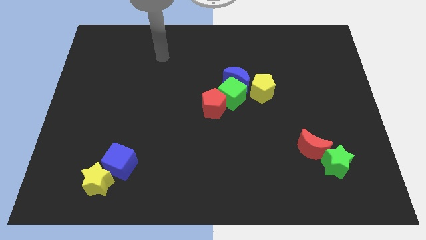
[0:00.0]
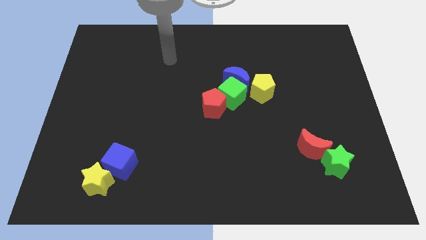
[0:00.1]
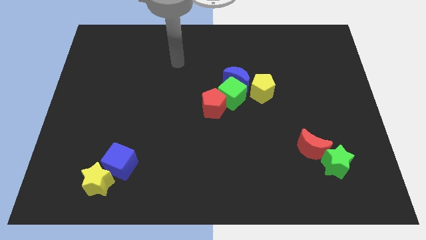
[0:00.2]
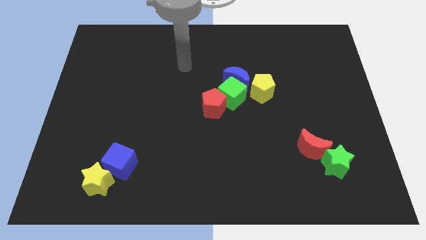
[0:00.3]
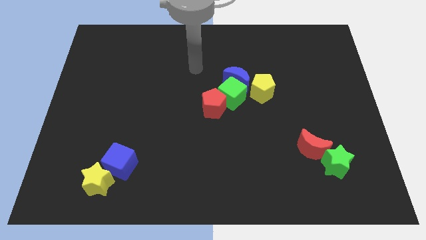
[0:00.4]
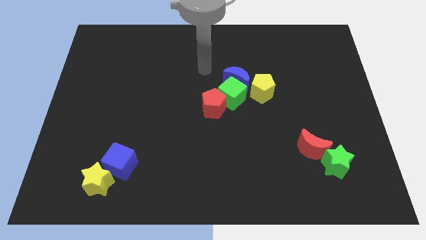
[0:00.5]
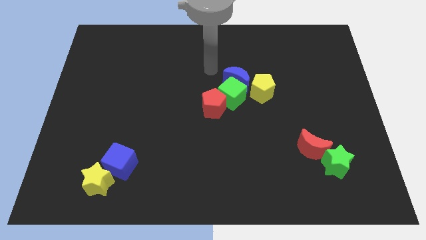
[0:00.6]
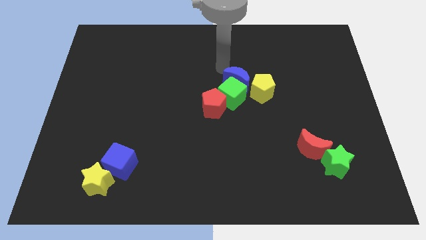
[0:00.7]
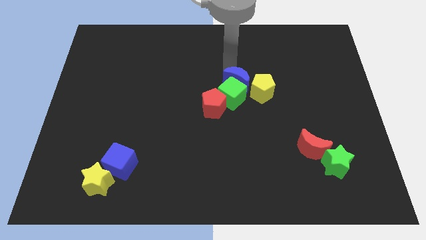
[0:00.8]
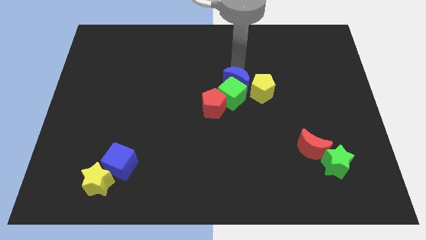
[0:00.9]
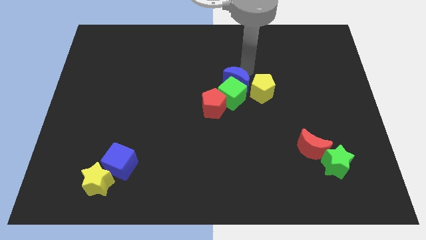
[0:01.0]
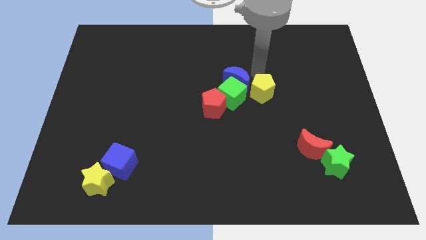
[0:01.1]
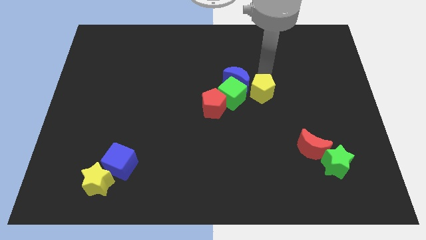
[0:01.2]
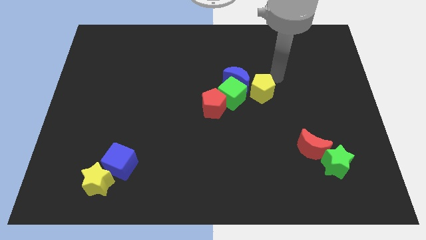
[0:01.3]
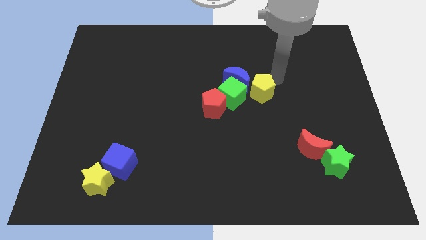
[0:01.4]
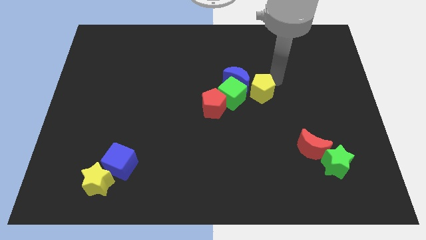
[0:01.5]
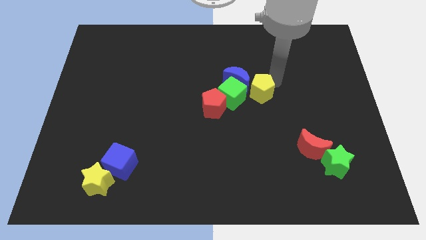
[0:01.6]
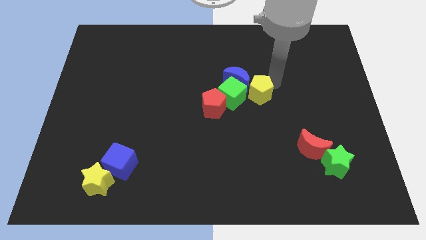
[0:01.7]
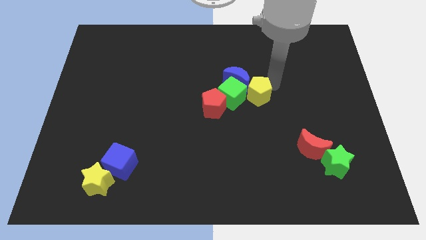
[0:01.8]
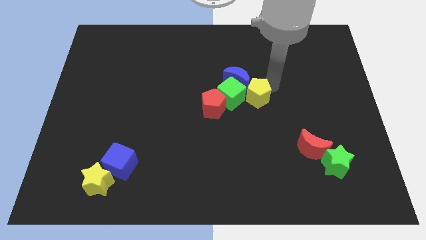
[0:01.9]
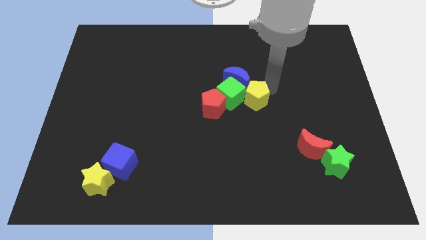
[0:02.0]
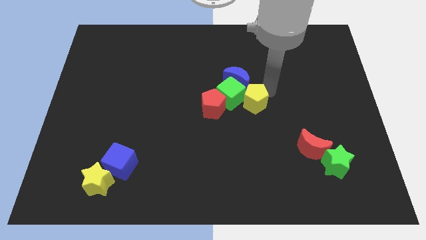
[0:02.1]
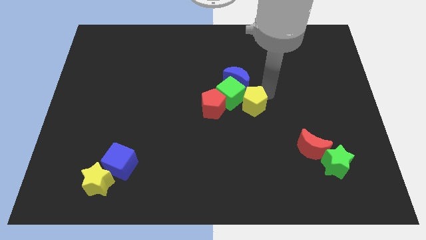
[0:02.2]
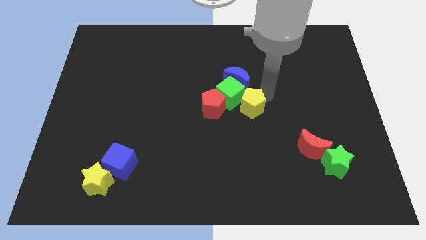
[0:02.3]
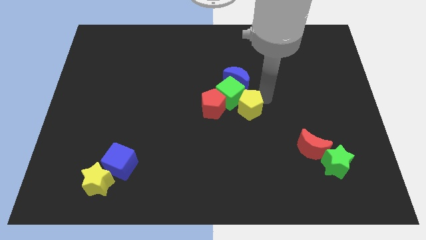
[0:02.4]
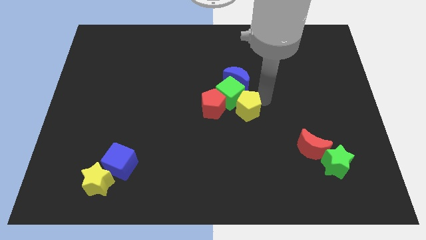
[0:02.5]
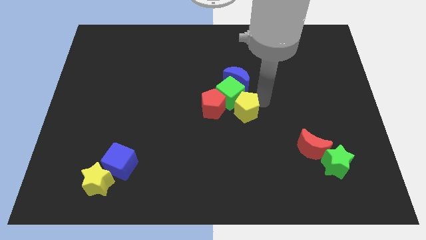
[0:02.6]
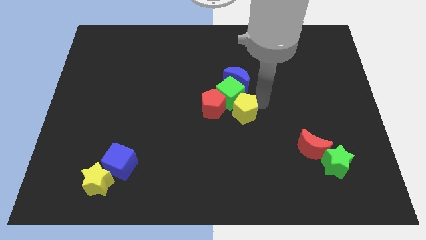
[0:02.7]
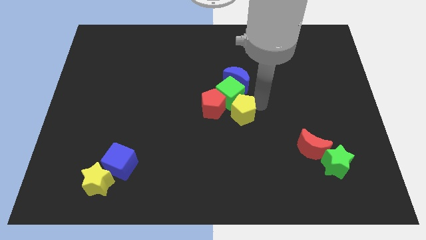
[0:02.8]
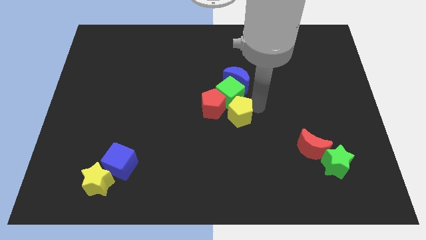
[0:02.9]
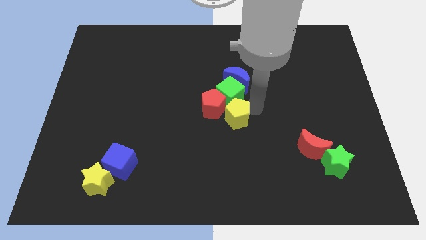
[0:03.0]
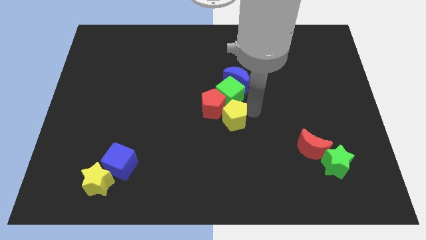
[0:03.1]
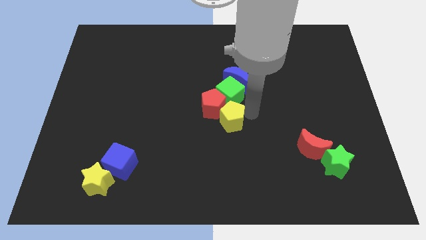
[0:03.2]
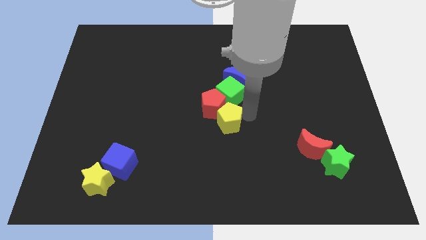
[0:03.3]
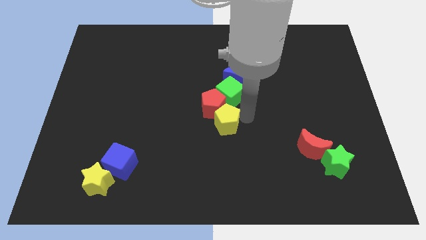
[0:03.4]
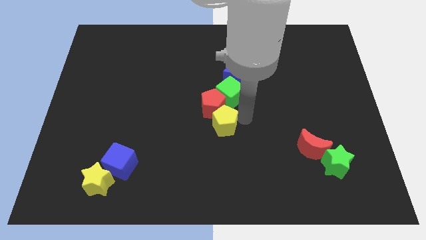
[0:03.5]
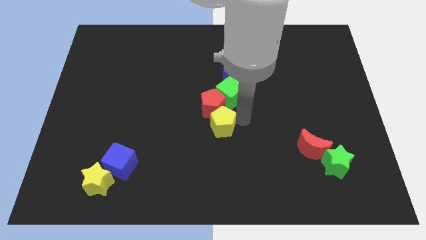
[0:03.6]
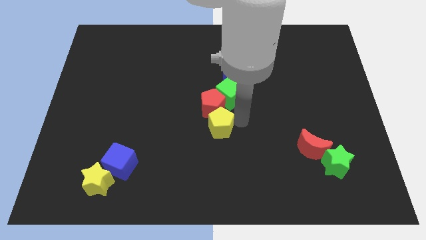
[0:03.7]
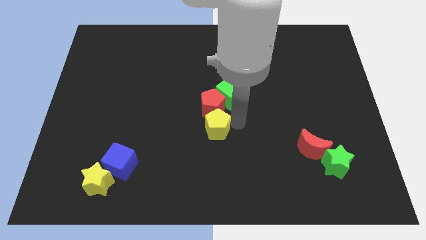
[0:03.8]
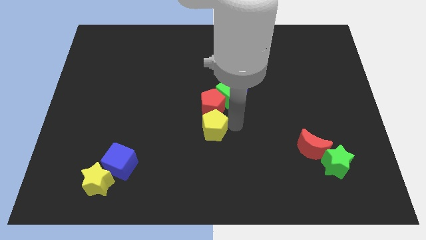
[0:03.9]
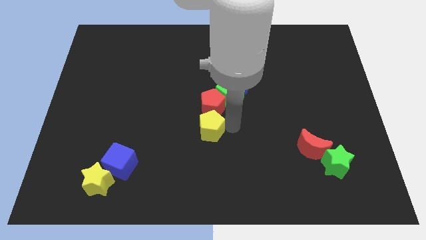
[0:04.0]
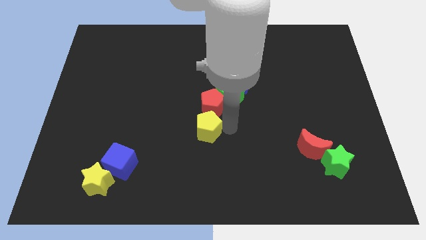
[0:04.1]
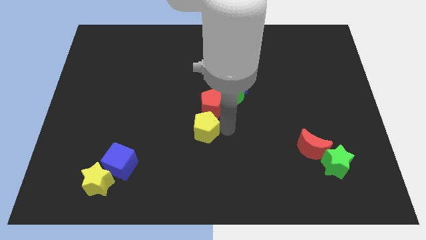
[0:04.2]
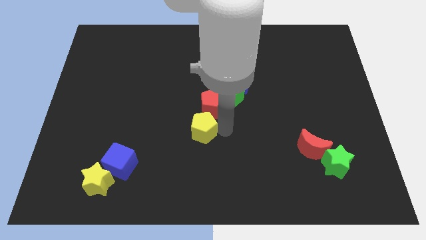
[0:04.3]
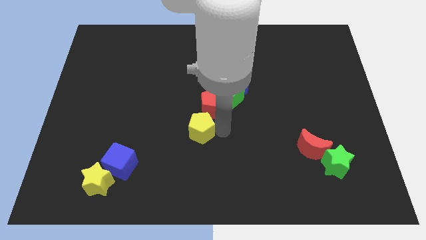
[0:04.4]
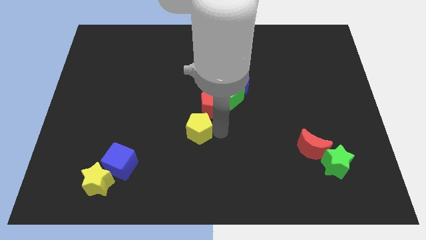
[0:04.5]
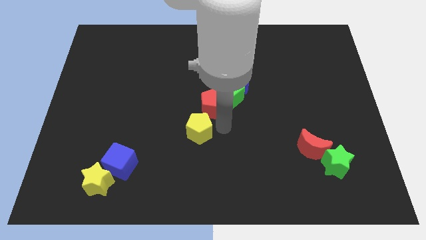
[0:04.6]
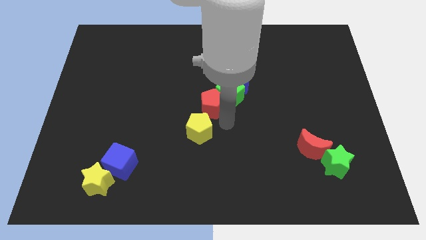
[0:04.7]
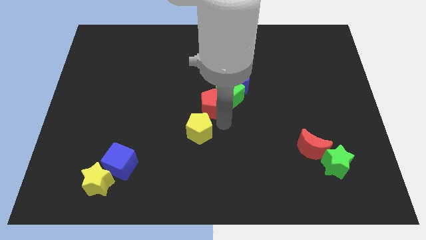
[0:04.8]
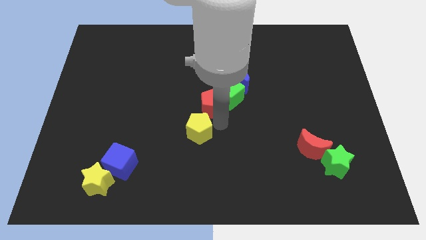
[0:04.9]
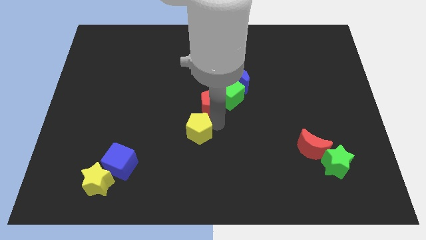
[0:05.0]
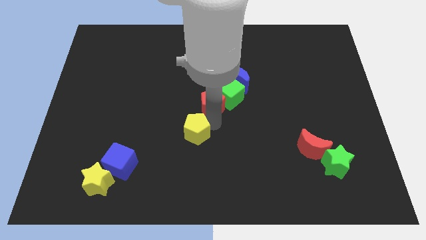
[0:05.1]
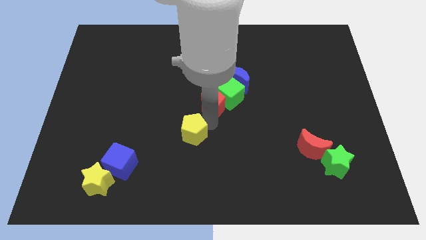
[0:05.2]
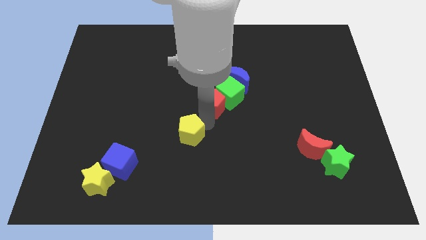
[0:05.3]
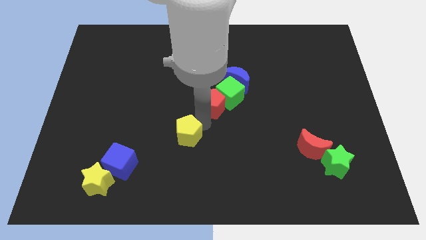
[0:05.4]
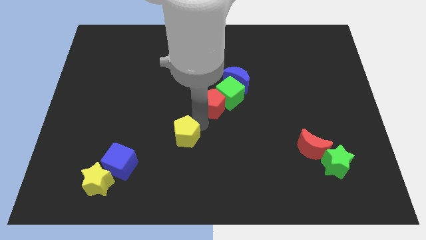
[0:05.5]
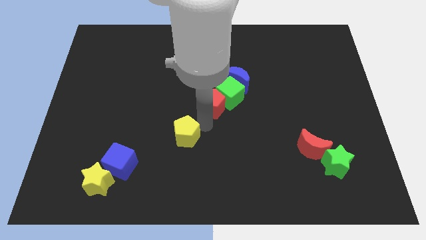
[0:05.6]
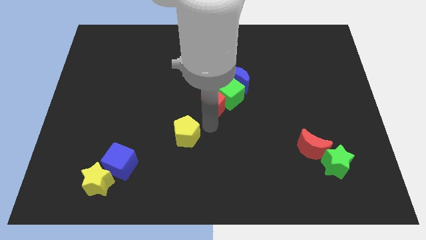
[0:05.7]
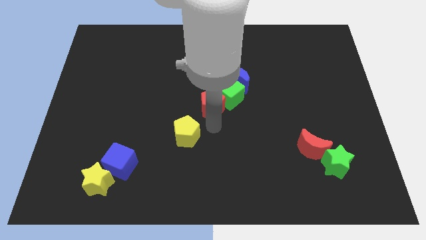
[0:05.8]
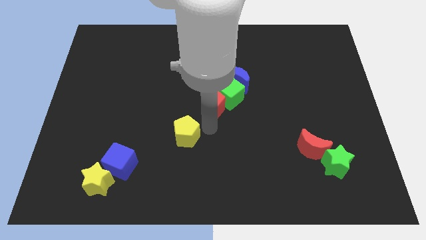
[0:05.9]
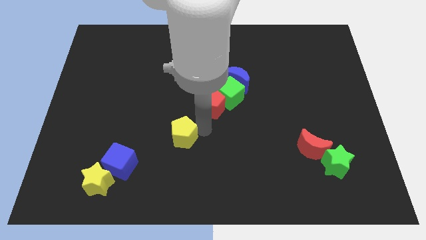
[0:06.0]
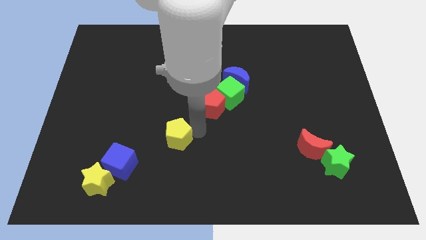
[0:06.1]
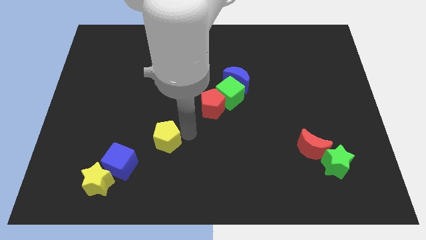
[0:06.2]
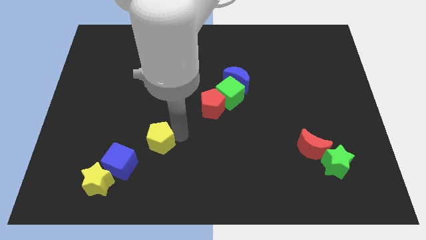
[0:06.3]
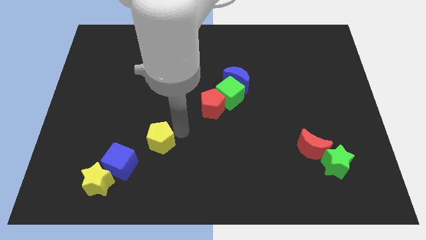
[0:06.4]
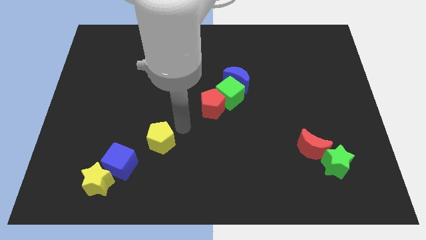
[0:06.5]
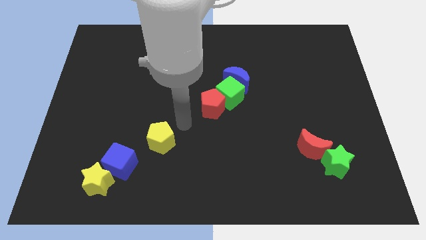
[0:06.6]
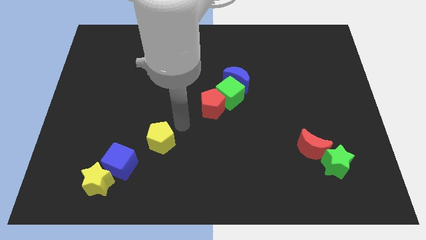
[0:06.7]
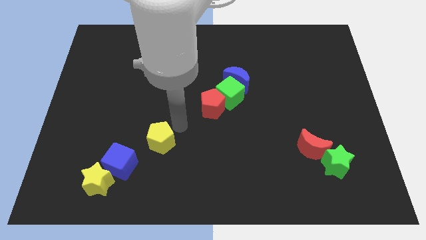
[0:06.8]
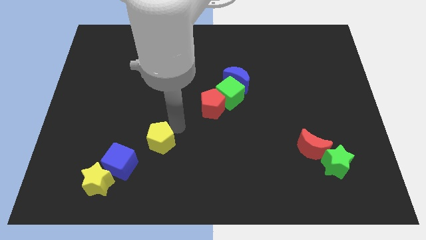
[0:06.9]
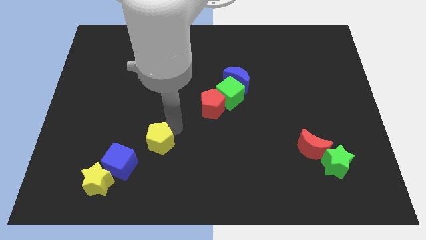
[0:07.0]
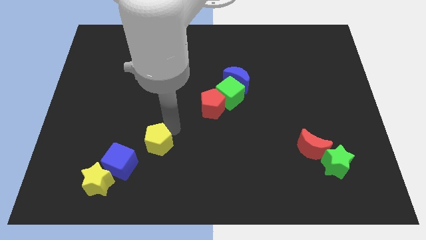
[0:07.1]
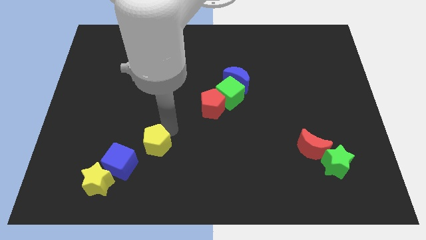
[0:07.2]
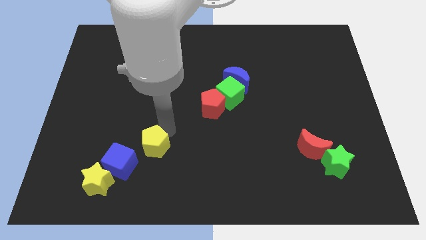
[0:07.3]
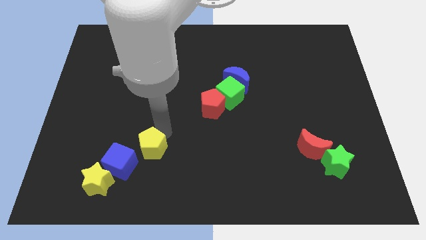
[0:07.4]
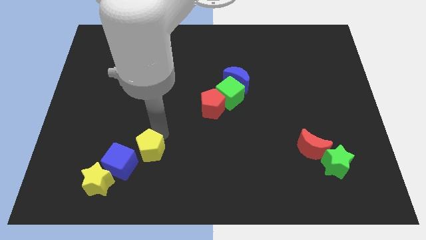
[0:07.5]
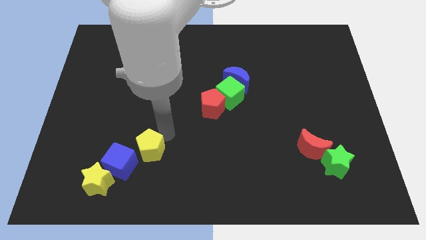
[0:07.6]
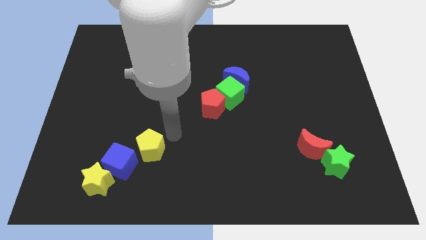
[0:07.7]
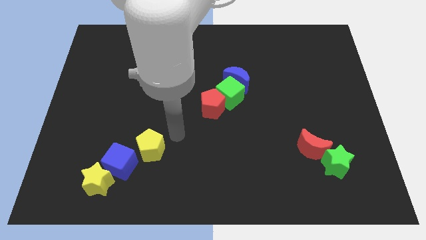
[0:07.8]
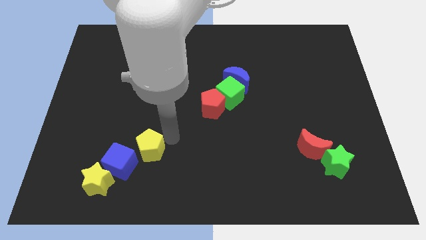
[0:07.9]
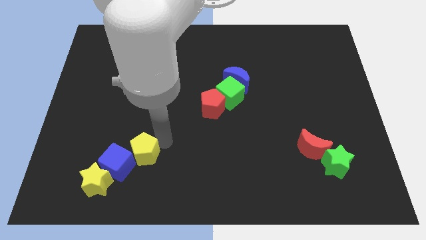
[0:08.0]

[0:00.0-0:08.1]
put the yellow pentagon towards the blue cube
